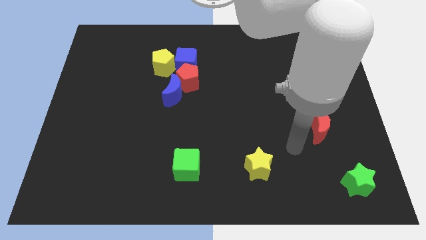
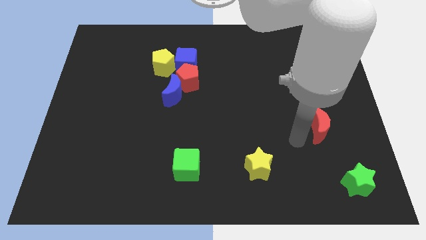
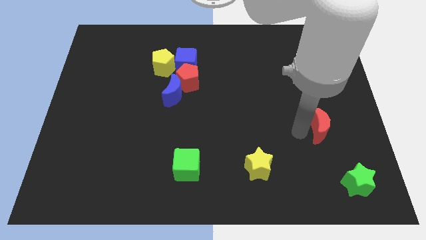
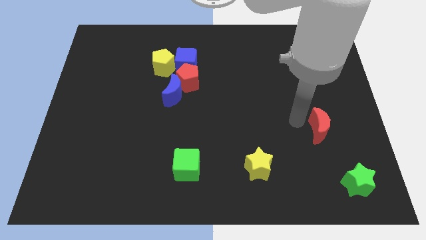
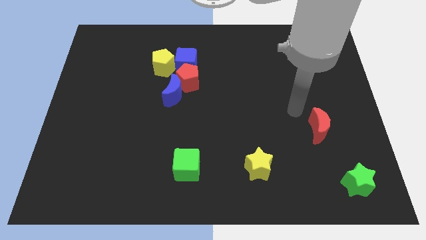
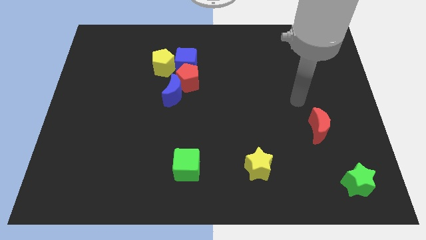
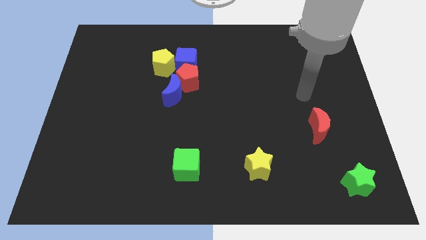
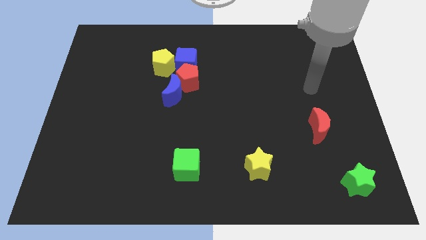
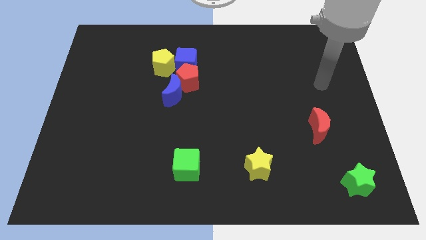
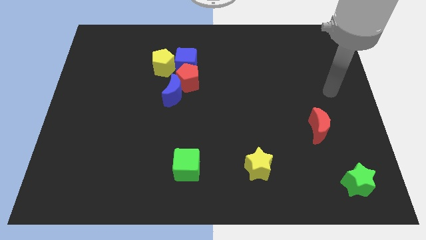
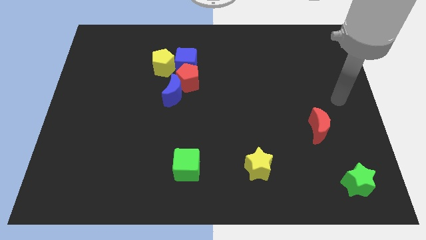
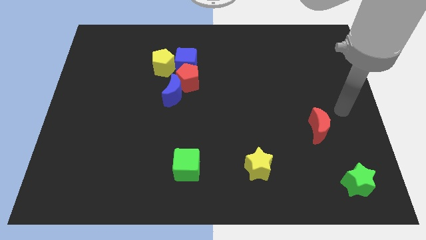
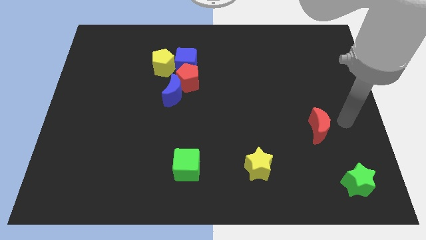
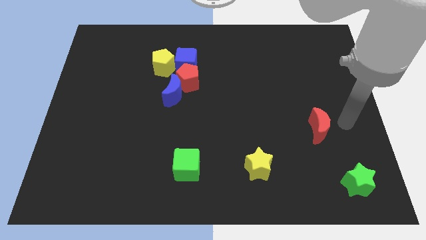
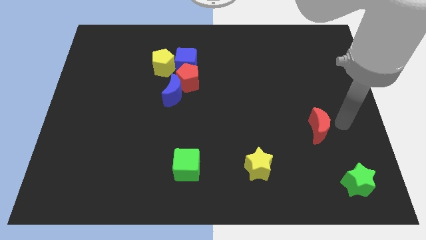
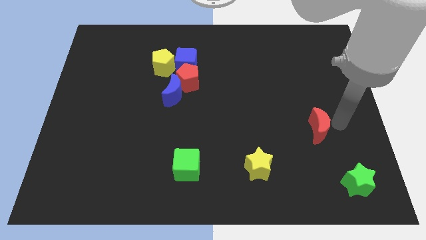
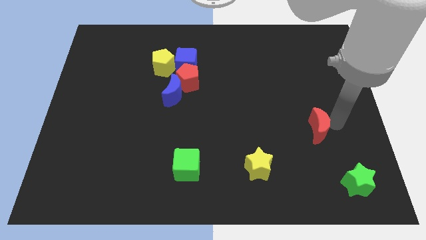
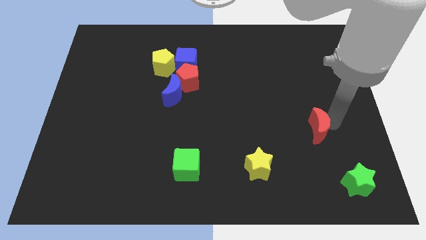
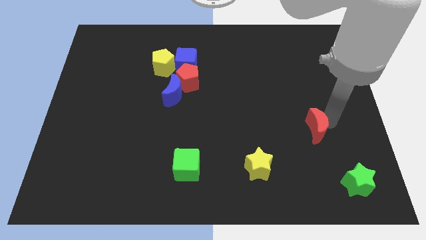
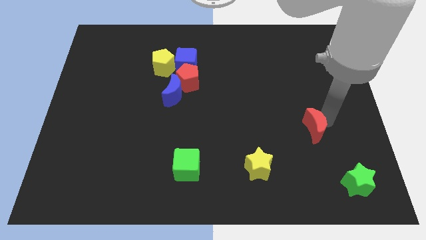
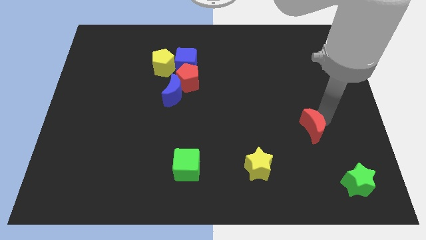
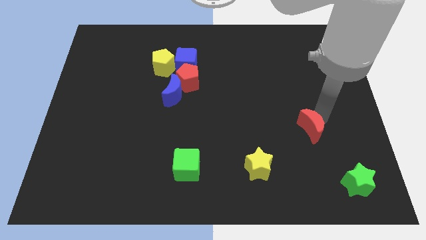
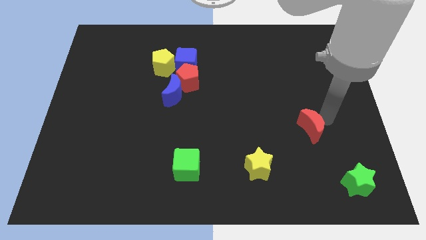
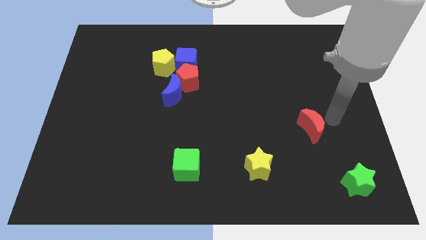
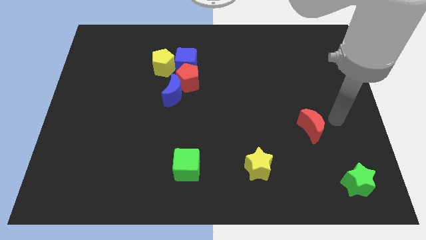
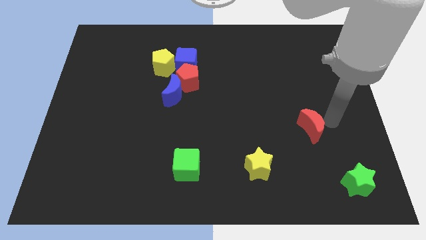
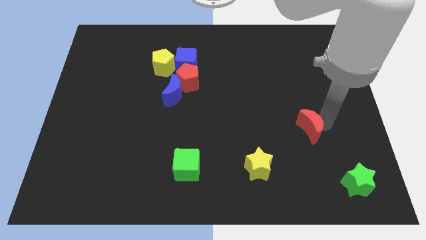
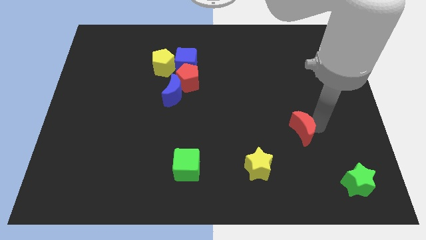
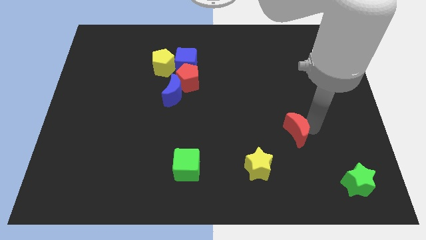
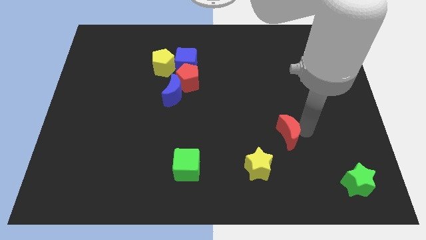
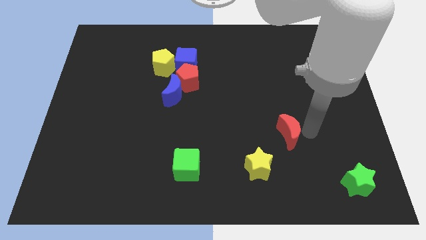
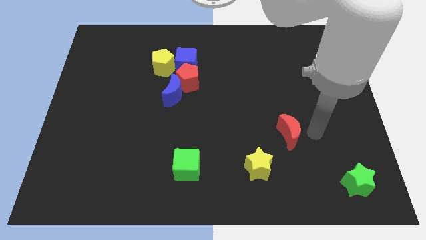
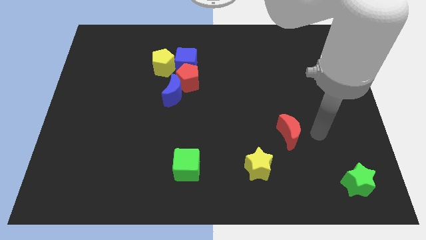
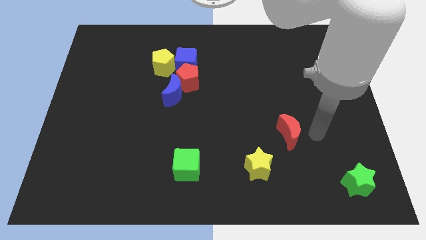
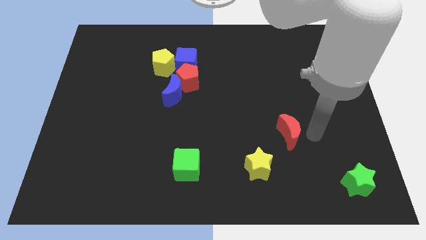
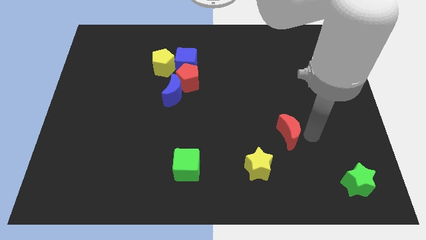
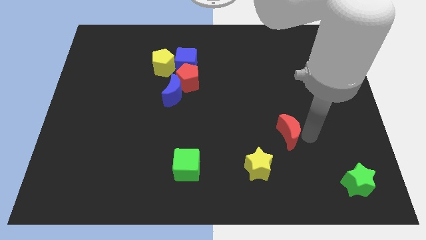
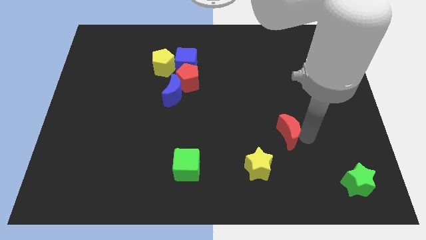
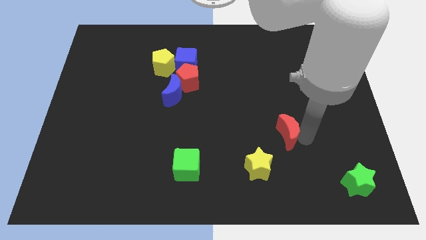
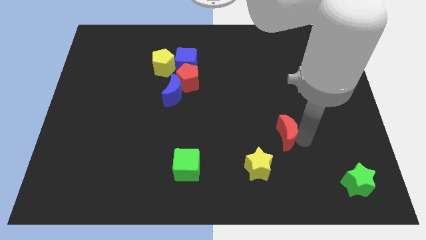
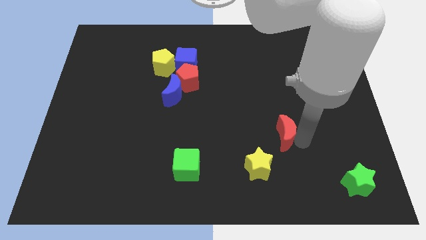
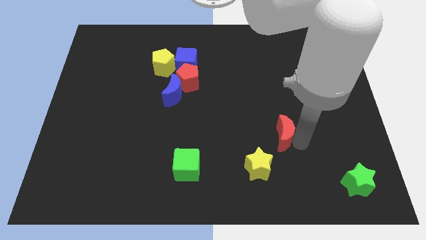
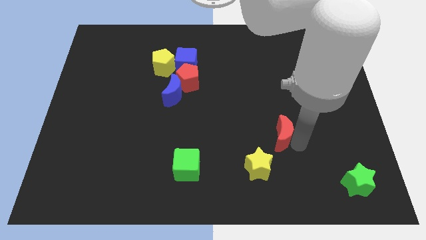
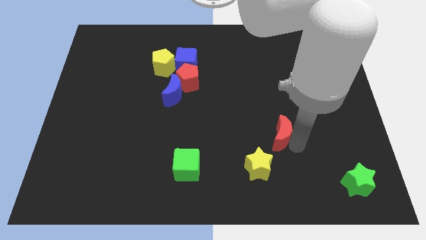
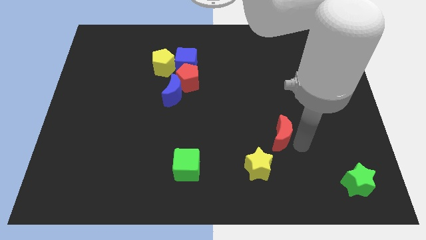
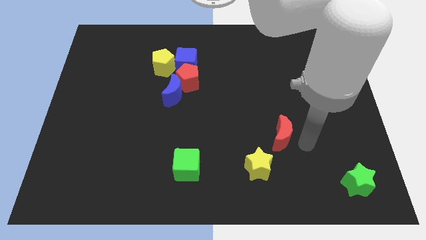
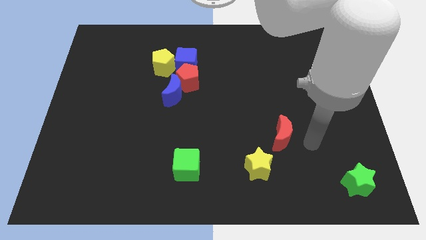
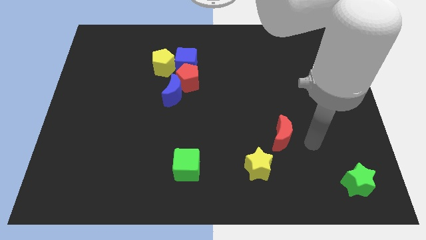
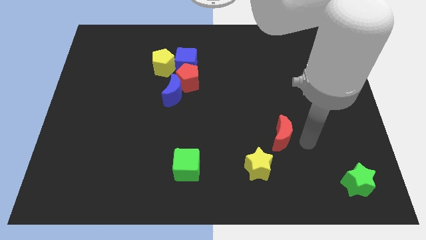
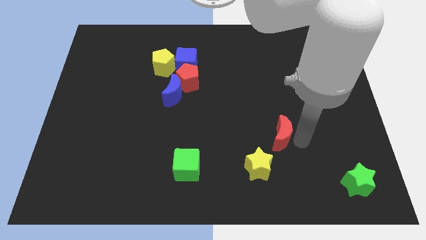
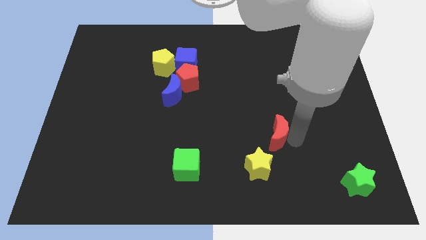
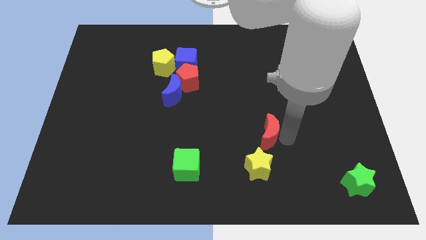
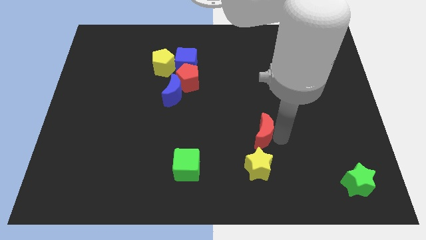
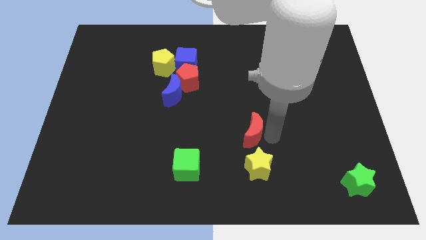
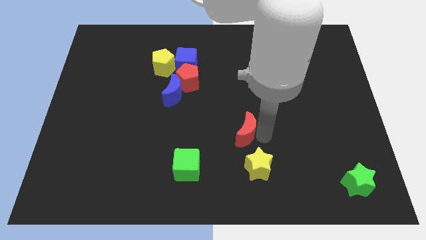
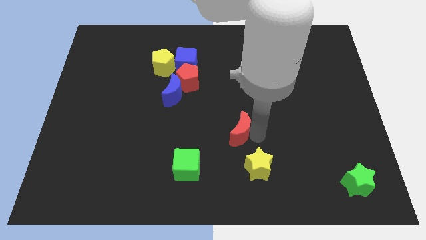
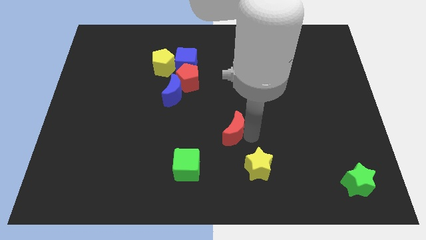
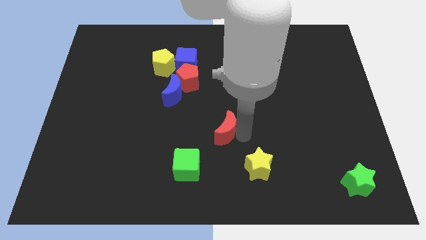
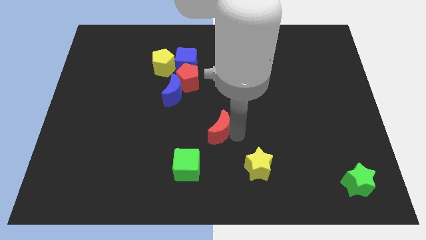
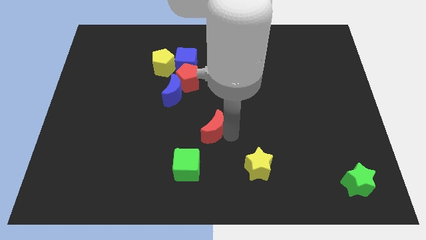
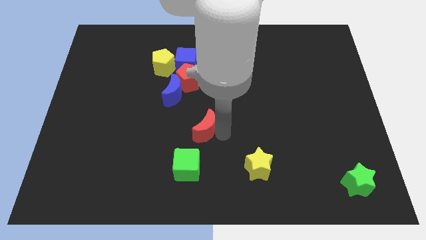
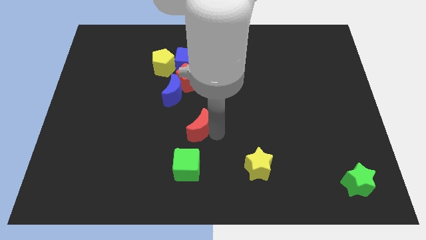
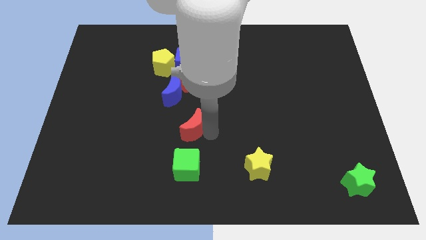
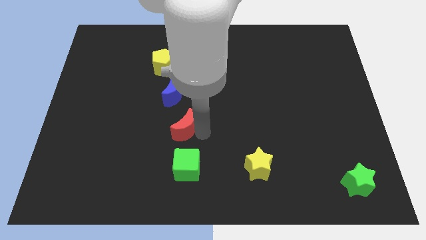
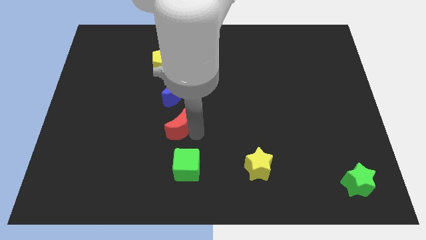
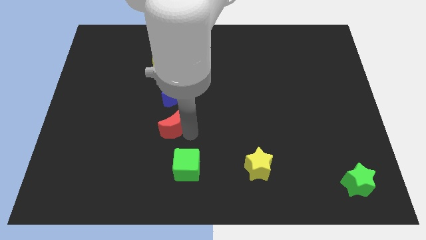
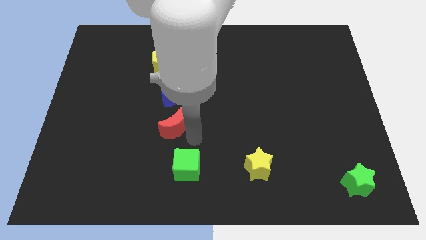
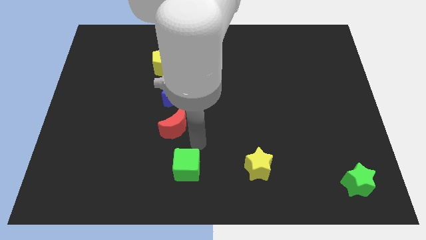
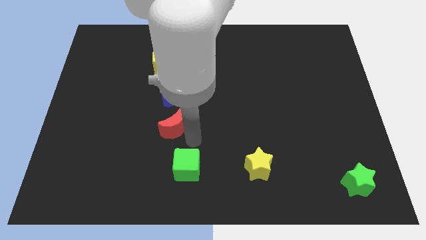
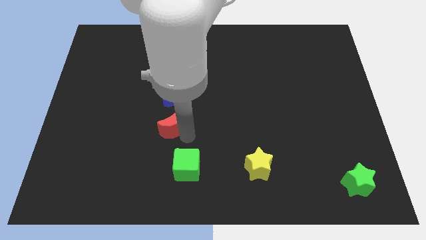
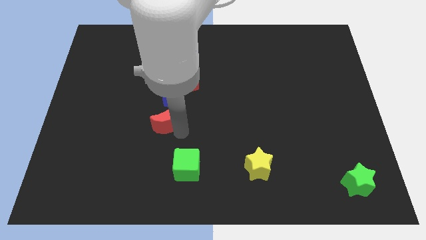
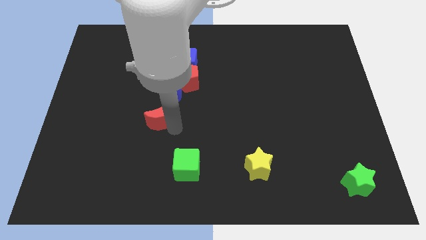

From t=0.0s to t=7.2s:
slide the red moon to the bottom left of the blue moon

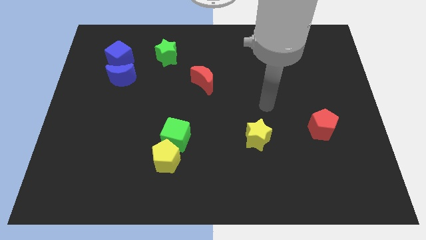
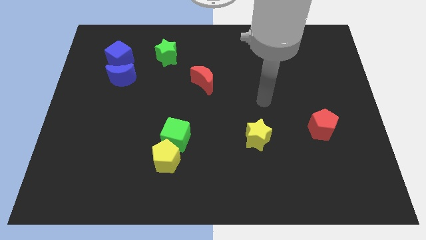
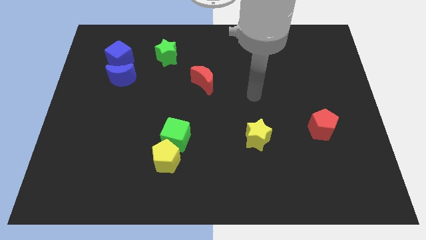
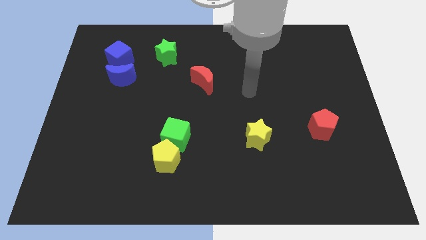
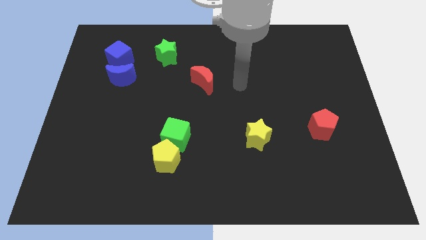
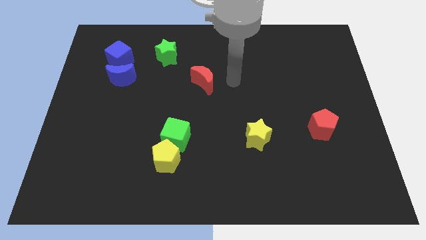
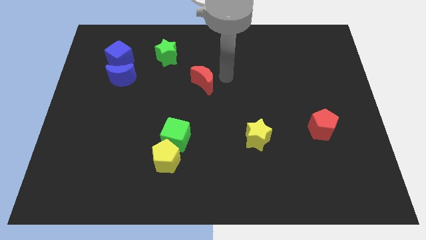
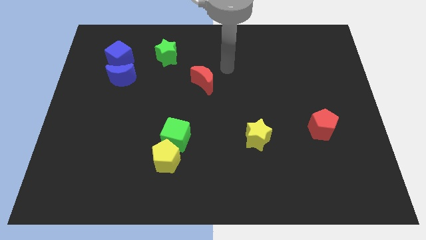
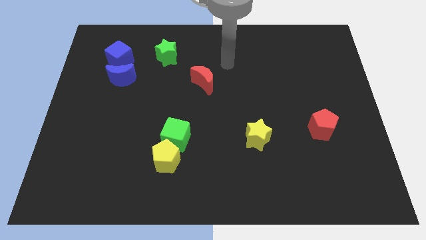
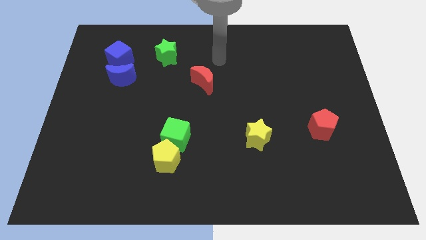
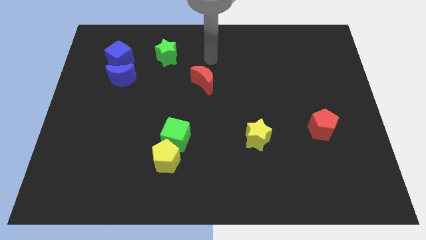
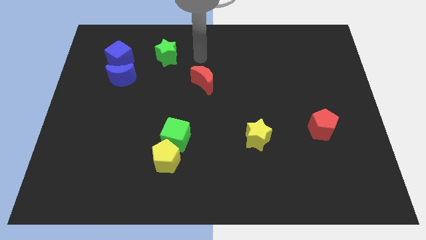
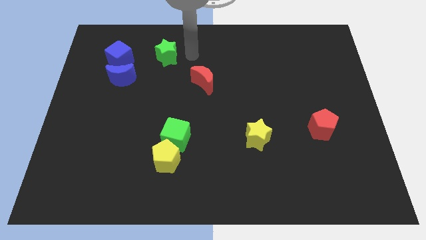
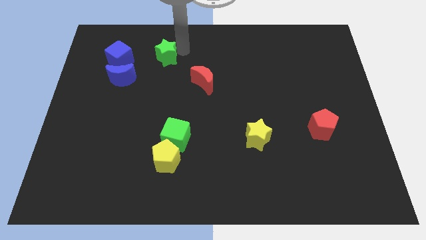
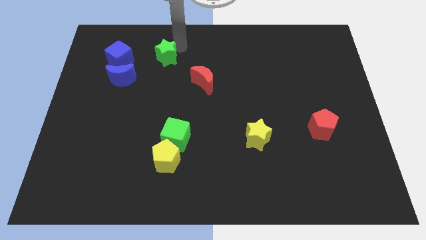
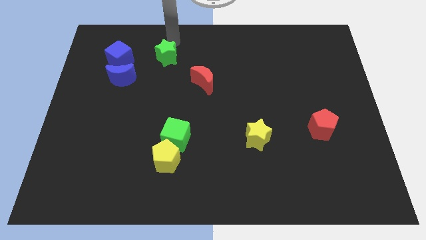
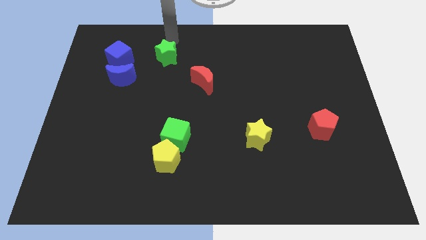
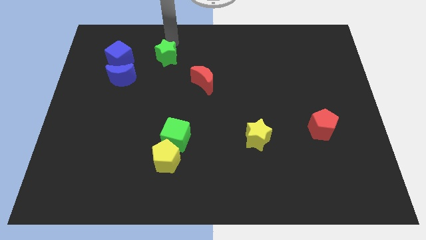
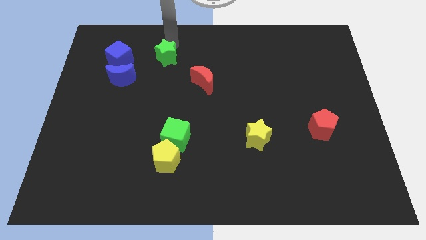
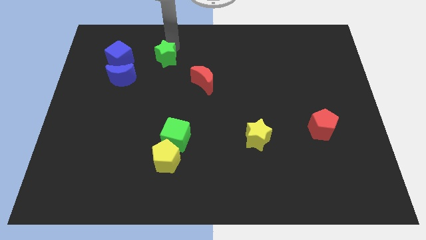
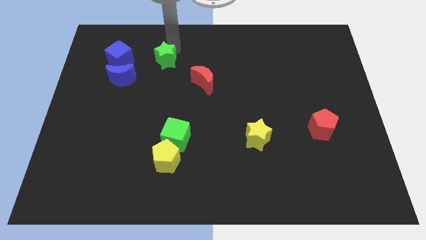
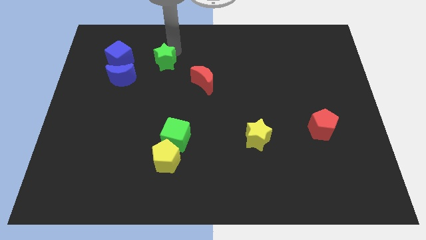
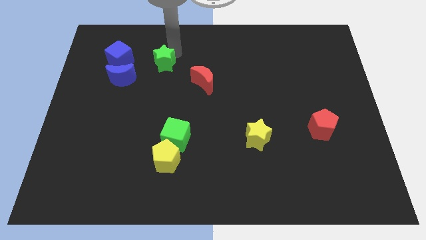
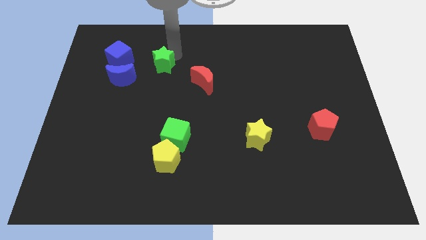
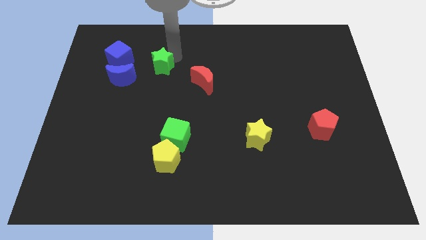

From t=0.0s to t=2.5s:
push the green star just right of the blue moon
